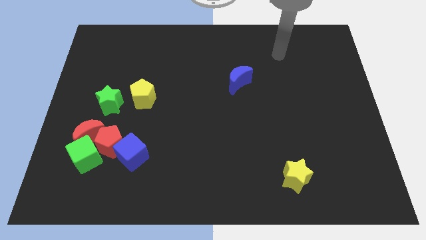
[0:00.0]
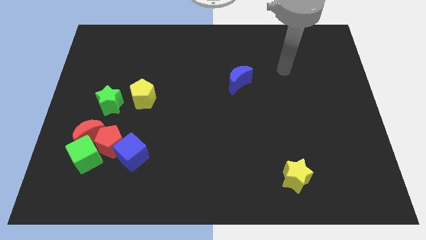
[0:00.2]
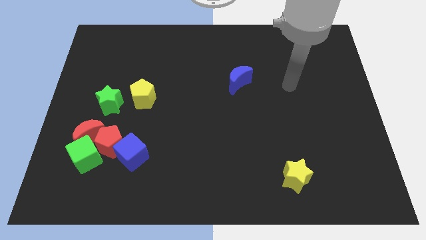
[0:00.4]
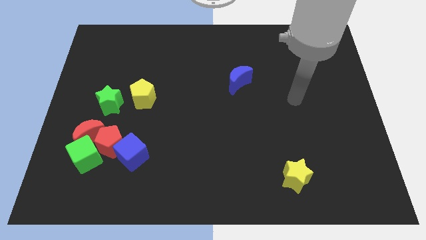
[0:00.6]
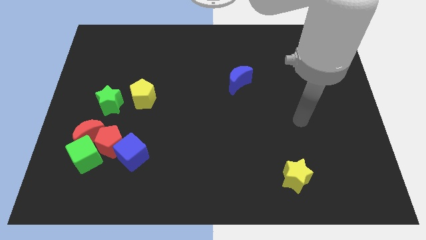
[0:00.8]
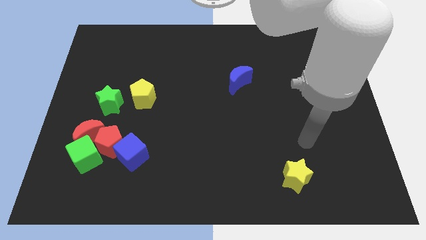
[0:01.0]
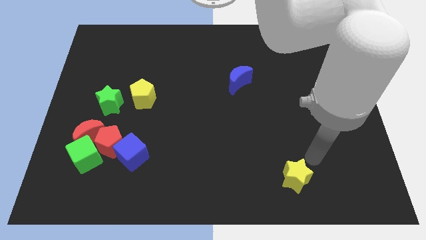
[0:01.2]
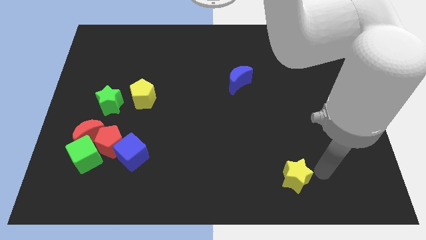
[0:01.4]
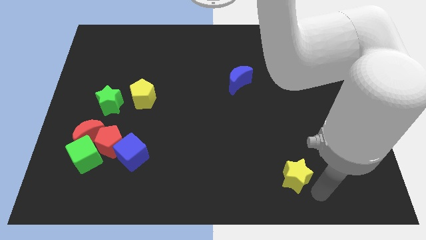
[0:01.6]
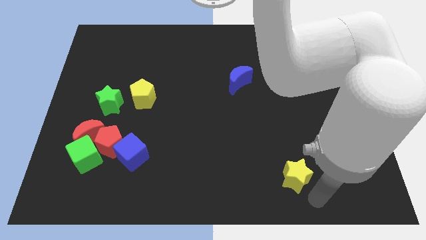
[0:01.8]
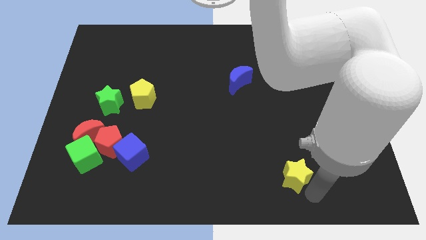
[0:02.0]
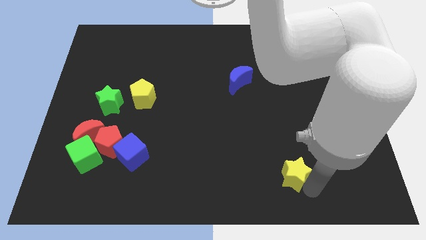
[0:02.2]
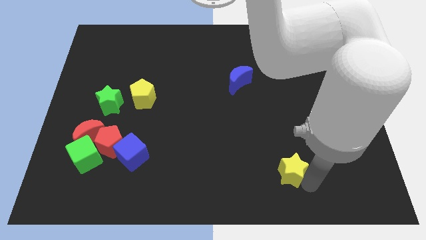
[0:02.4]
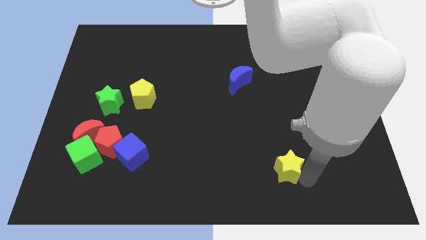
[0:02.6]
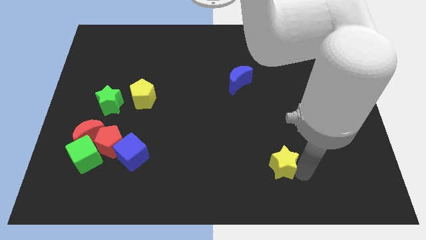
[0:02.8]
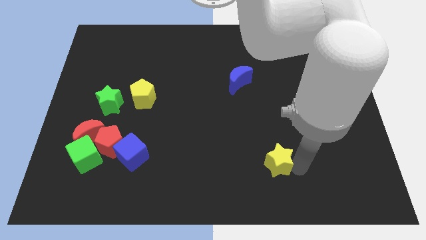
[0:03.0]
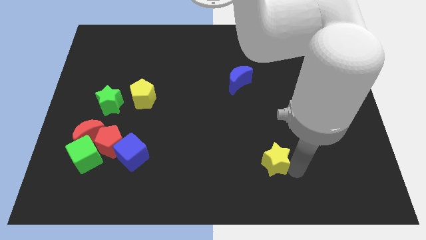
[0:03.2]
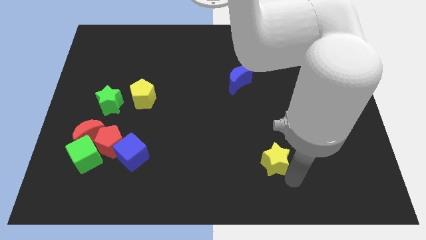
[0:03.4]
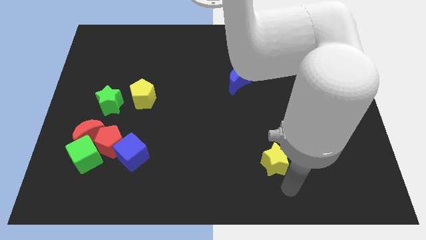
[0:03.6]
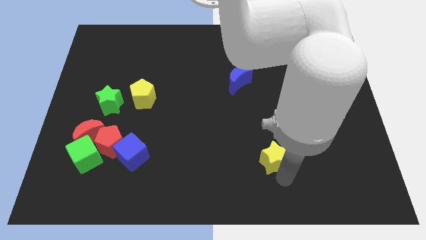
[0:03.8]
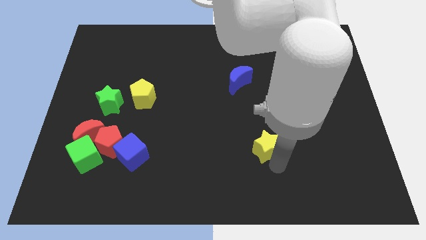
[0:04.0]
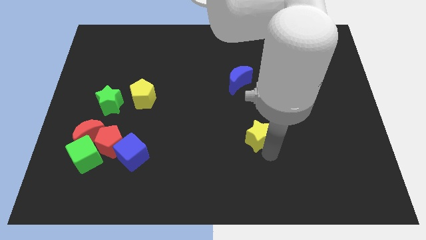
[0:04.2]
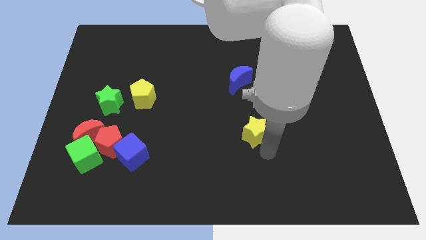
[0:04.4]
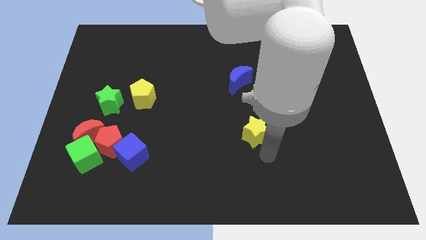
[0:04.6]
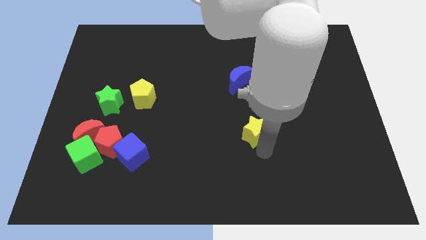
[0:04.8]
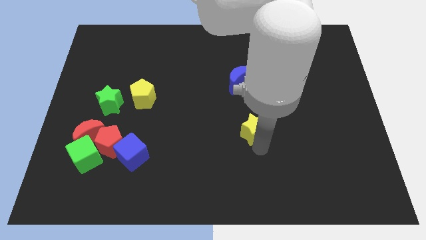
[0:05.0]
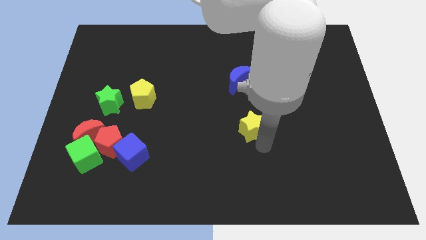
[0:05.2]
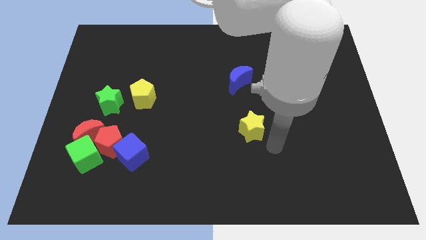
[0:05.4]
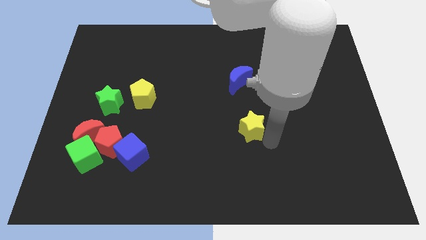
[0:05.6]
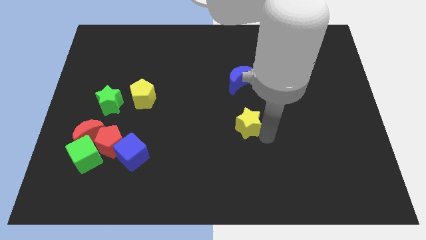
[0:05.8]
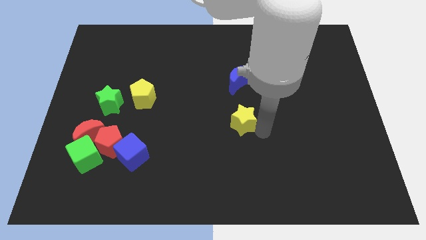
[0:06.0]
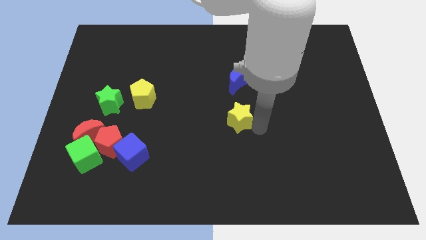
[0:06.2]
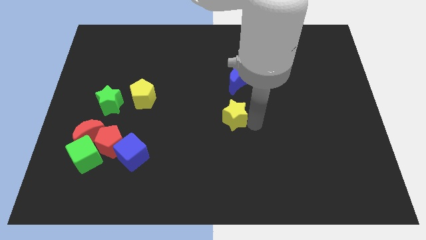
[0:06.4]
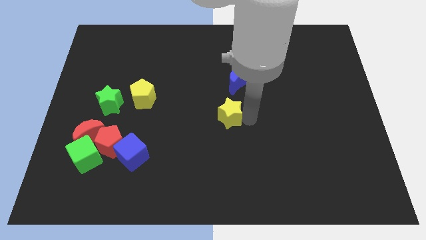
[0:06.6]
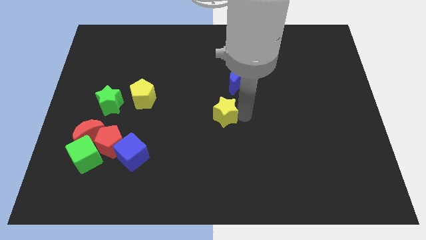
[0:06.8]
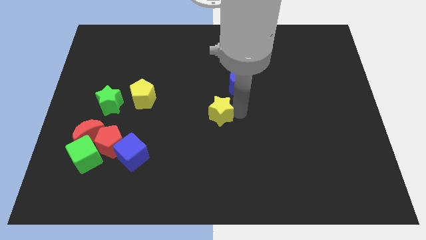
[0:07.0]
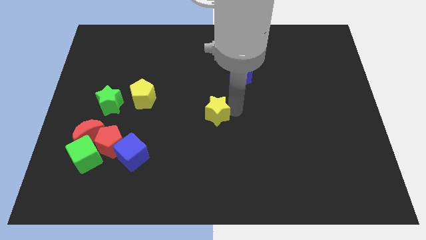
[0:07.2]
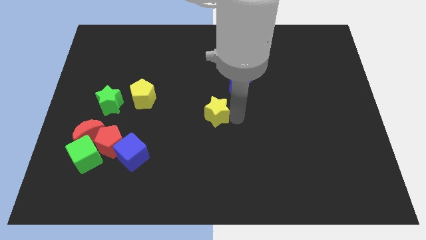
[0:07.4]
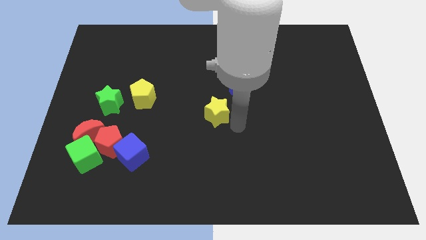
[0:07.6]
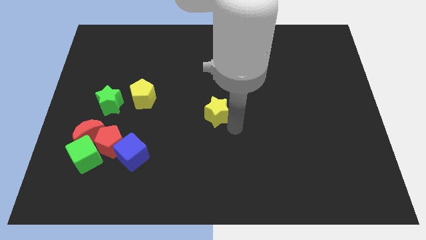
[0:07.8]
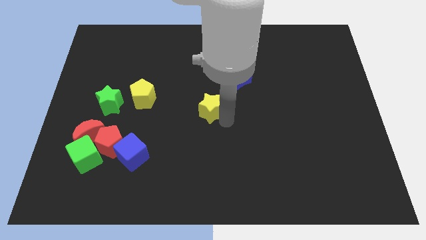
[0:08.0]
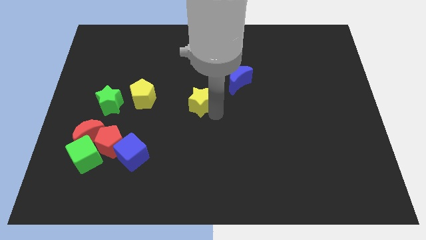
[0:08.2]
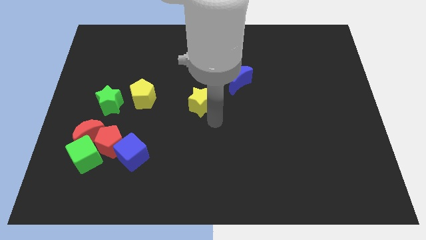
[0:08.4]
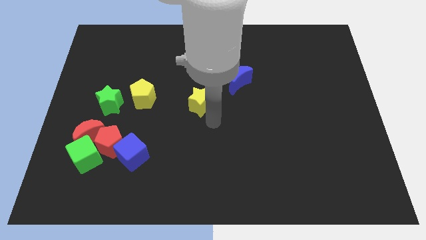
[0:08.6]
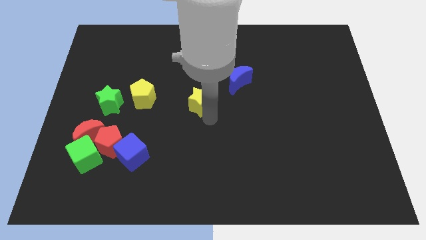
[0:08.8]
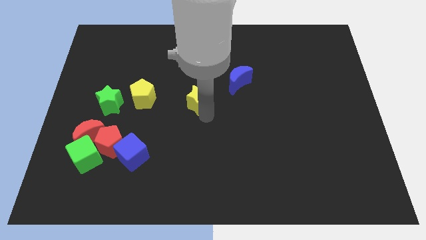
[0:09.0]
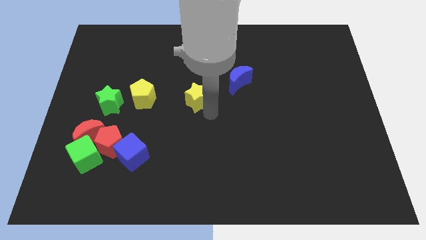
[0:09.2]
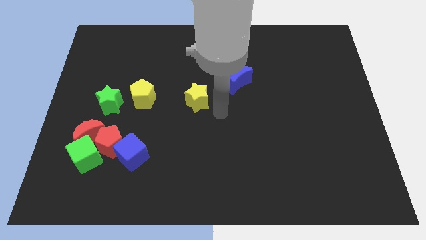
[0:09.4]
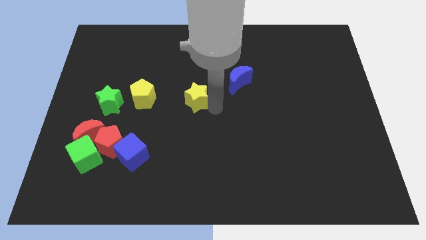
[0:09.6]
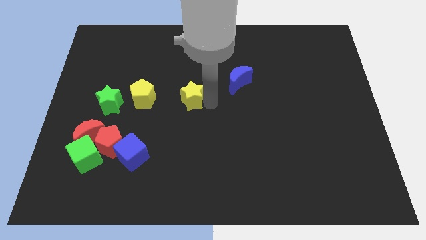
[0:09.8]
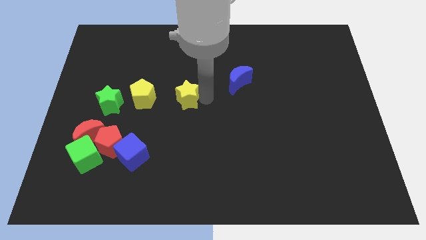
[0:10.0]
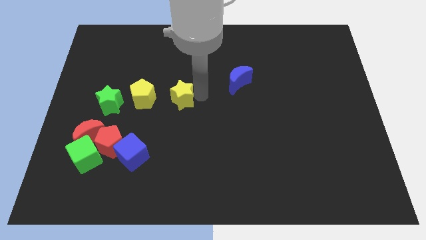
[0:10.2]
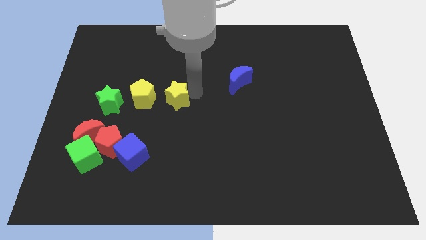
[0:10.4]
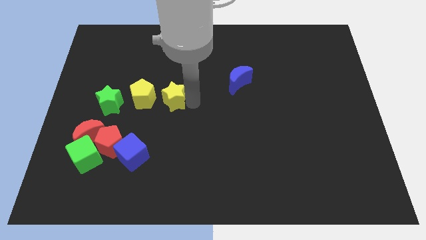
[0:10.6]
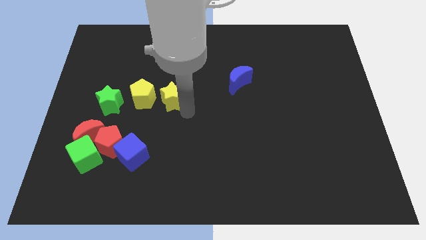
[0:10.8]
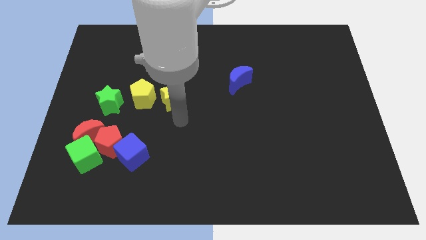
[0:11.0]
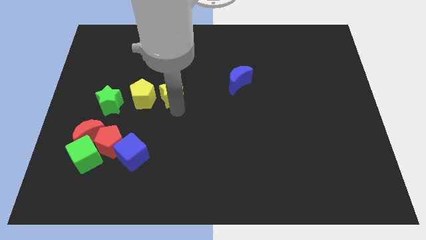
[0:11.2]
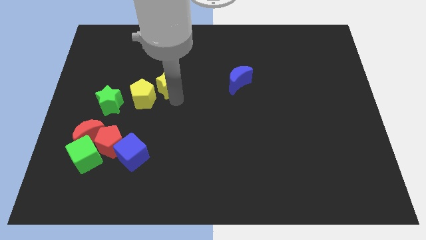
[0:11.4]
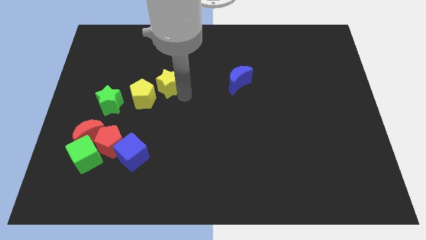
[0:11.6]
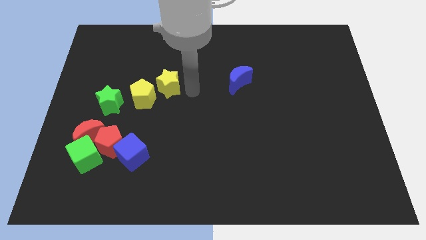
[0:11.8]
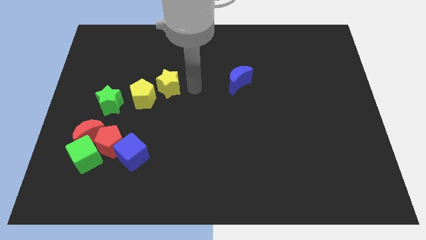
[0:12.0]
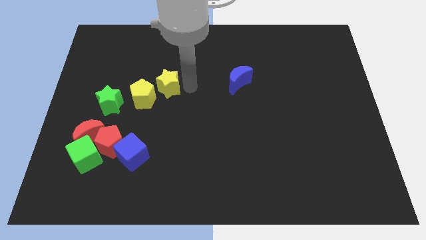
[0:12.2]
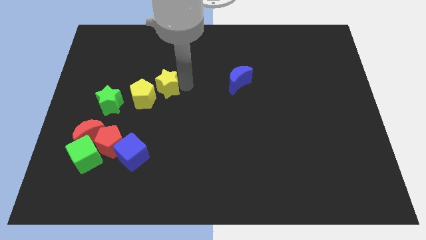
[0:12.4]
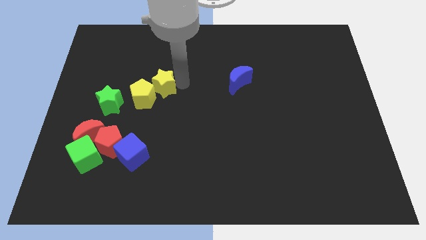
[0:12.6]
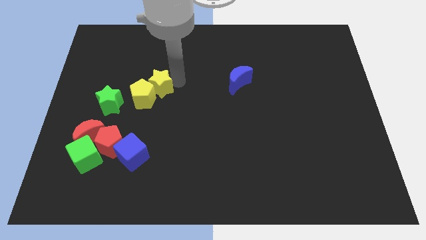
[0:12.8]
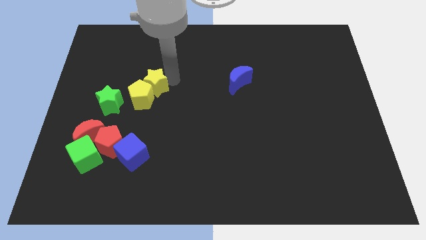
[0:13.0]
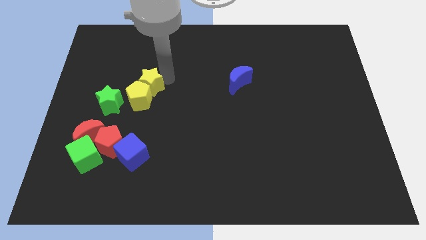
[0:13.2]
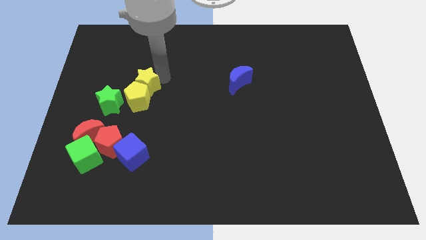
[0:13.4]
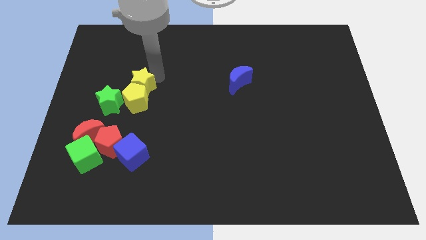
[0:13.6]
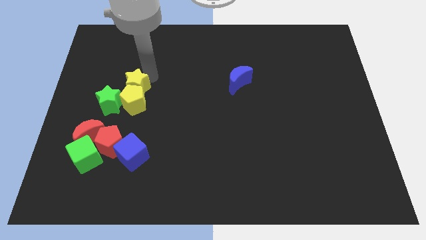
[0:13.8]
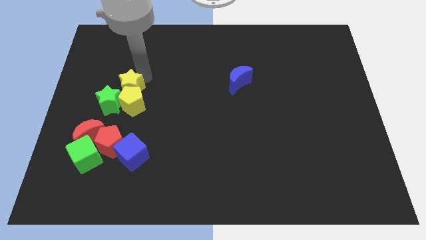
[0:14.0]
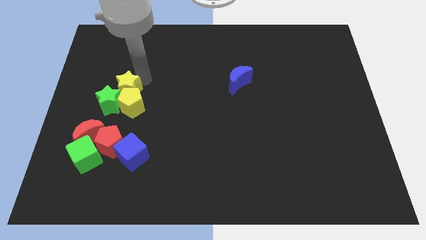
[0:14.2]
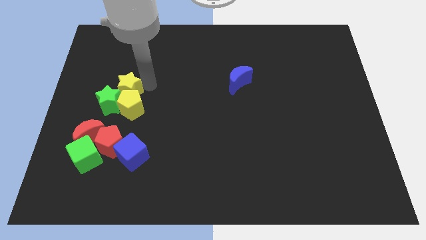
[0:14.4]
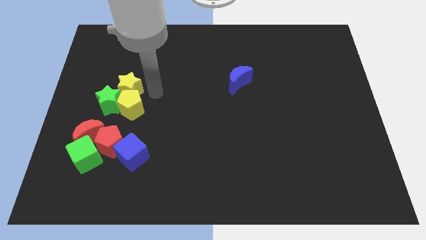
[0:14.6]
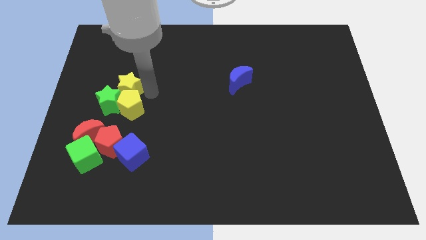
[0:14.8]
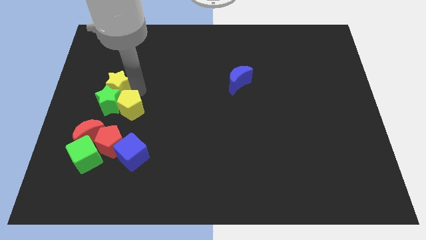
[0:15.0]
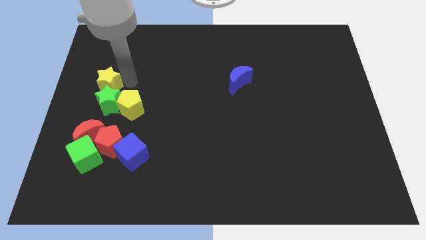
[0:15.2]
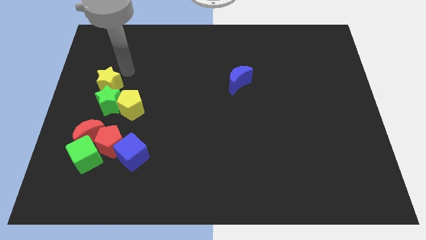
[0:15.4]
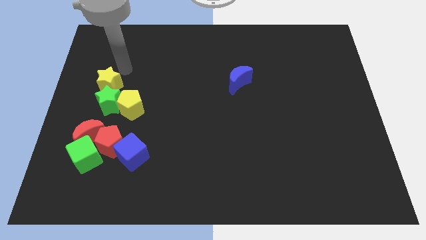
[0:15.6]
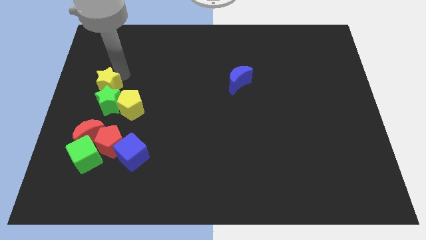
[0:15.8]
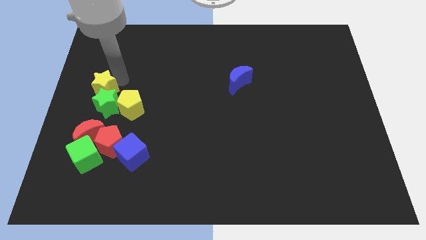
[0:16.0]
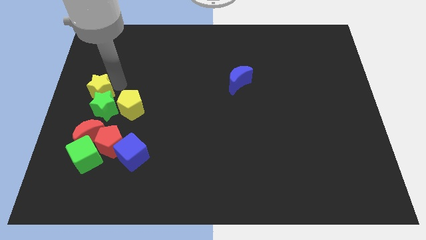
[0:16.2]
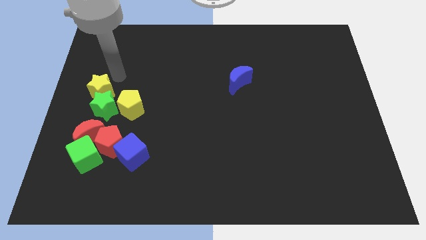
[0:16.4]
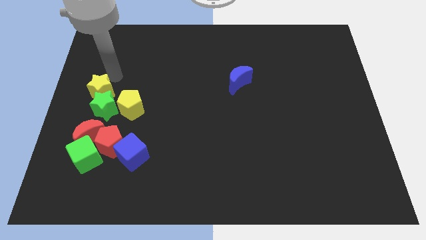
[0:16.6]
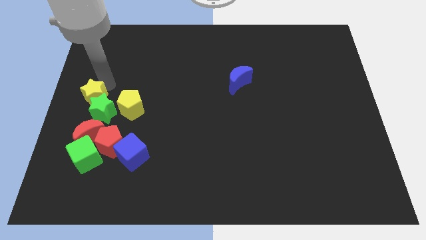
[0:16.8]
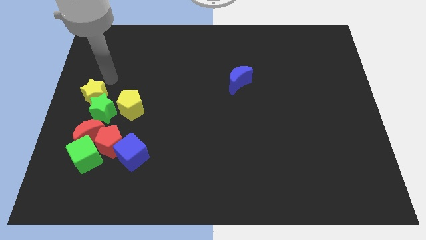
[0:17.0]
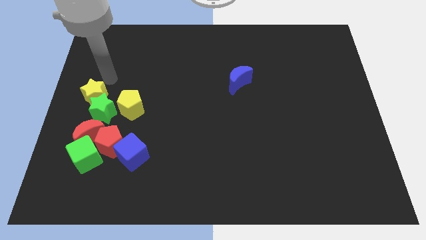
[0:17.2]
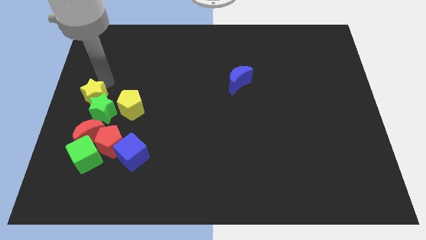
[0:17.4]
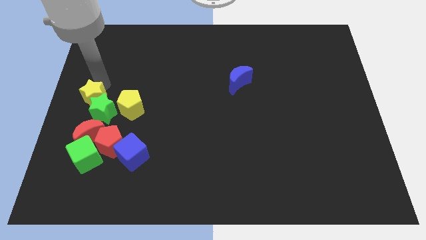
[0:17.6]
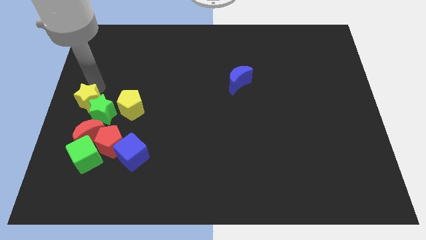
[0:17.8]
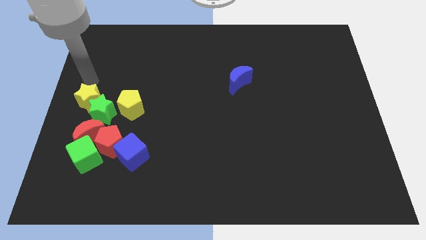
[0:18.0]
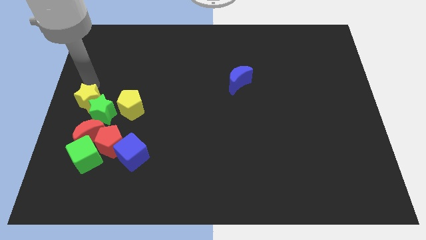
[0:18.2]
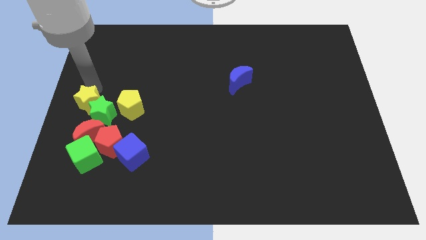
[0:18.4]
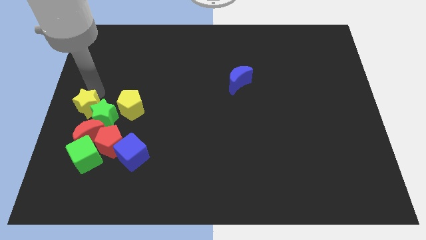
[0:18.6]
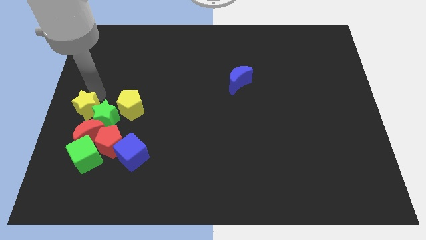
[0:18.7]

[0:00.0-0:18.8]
put the yellow star to the top left of the red pentagon
